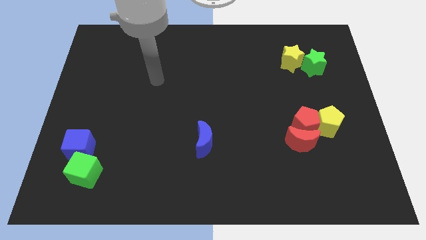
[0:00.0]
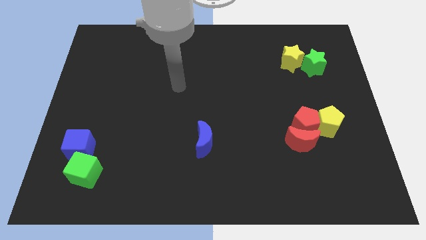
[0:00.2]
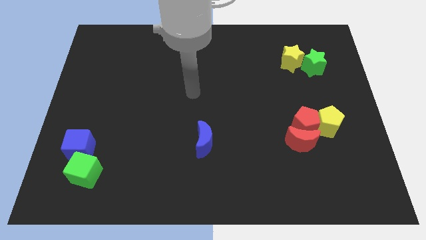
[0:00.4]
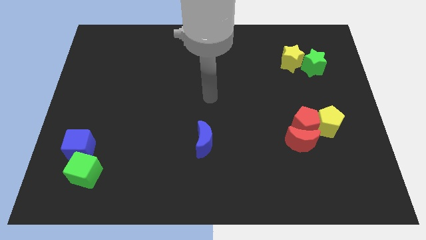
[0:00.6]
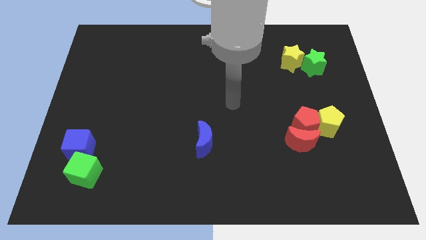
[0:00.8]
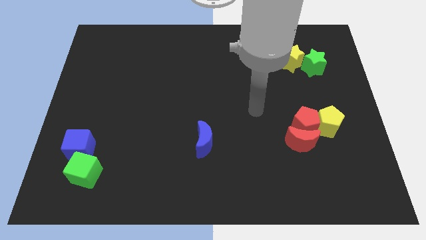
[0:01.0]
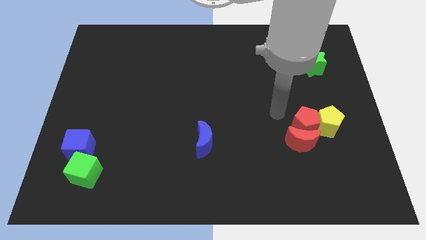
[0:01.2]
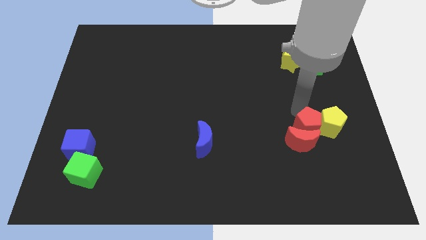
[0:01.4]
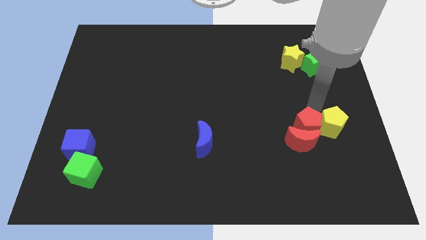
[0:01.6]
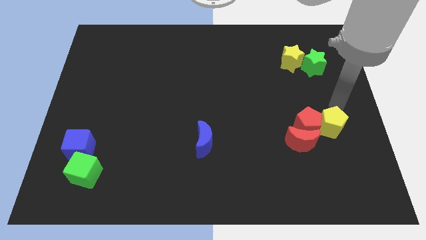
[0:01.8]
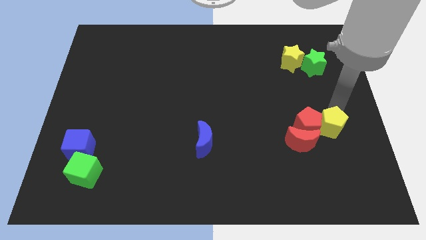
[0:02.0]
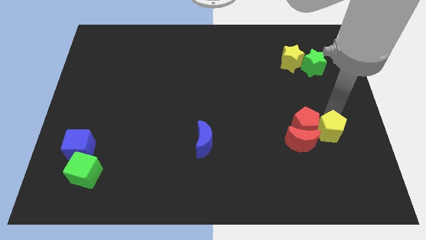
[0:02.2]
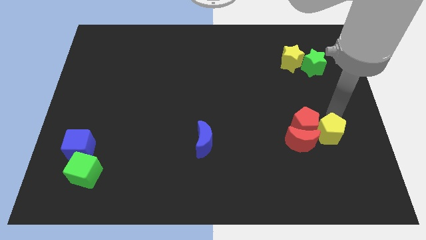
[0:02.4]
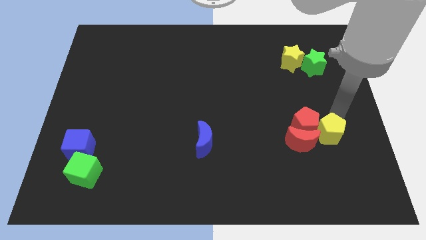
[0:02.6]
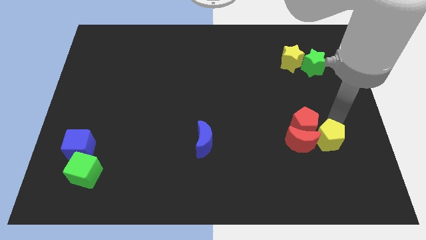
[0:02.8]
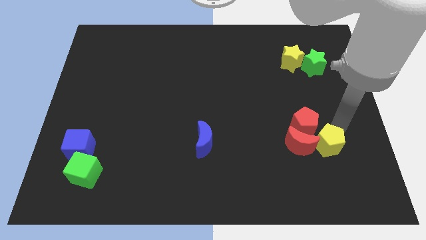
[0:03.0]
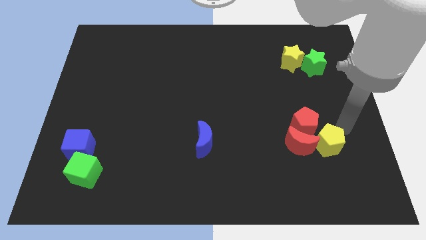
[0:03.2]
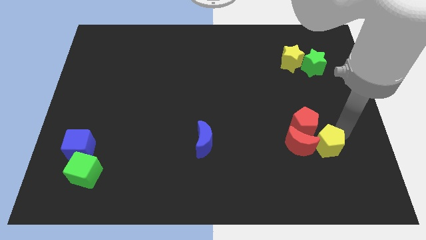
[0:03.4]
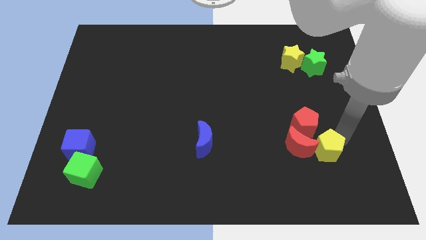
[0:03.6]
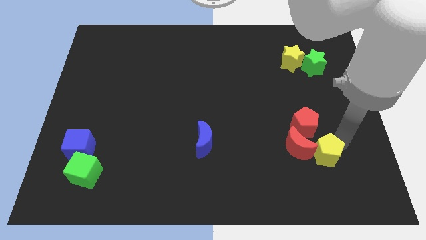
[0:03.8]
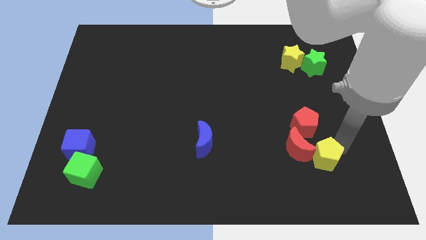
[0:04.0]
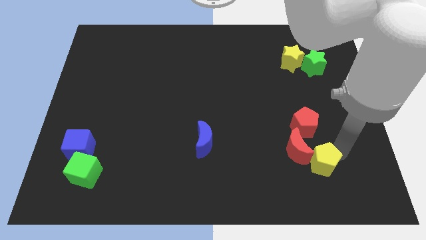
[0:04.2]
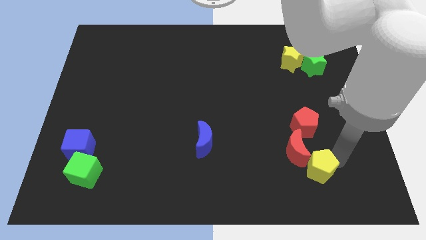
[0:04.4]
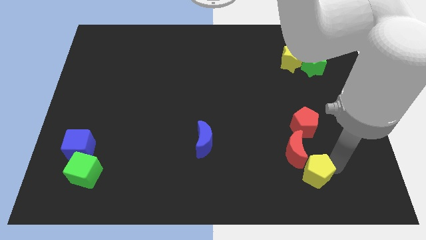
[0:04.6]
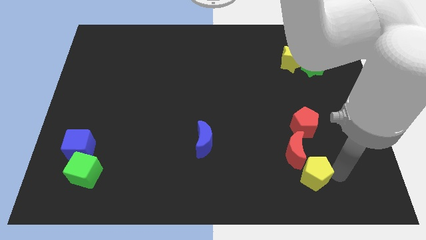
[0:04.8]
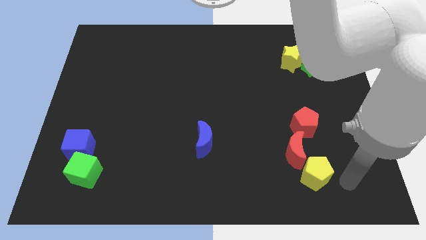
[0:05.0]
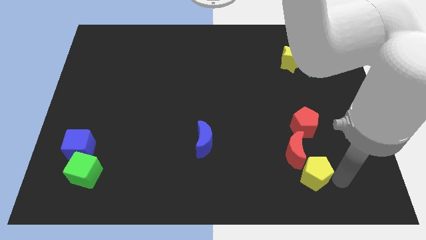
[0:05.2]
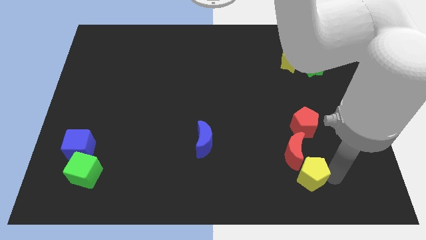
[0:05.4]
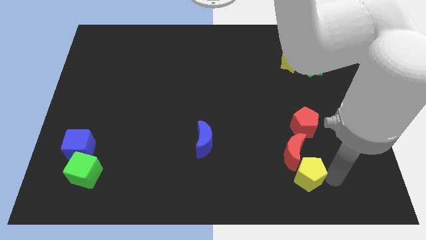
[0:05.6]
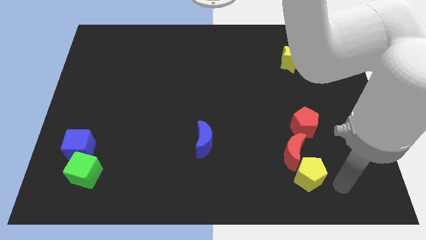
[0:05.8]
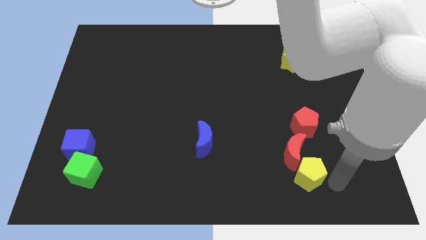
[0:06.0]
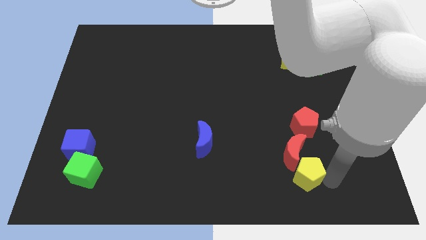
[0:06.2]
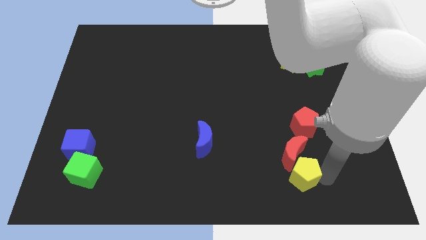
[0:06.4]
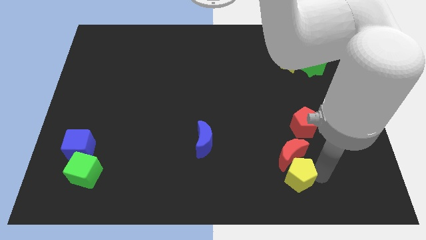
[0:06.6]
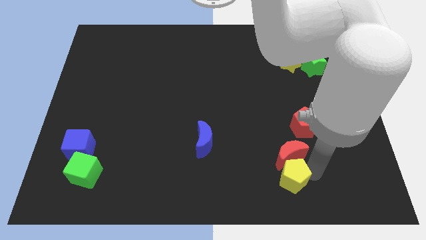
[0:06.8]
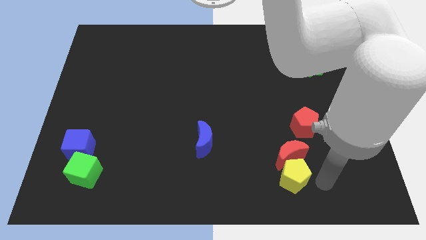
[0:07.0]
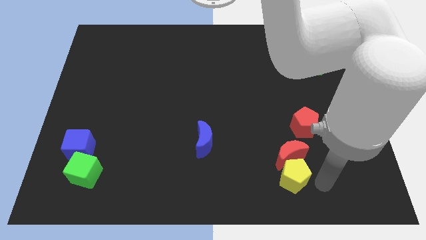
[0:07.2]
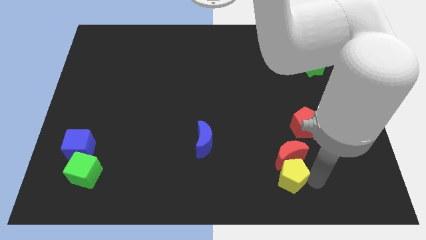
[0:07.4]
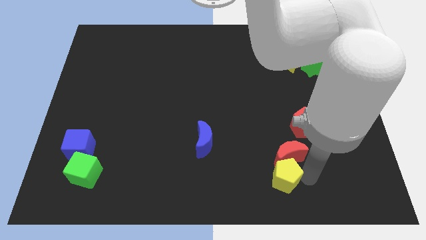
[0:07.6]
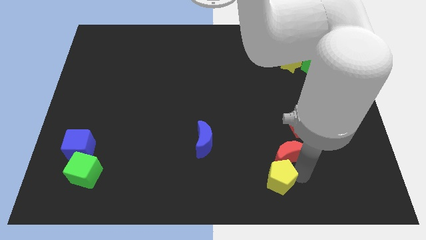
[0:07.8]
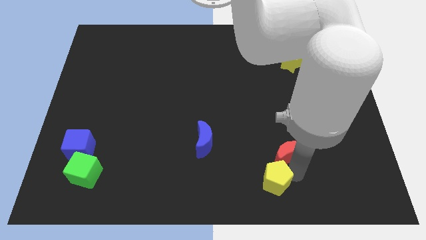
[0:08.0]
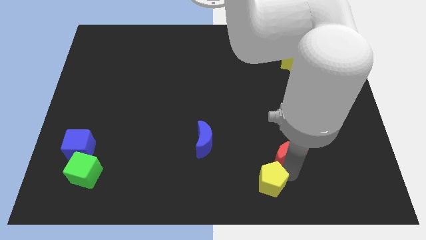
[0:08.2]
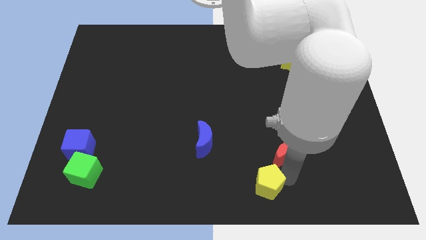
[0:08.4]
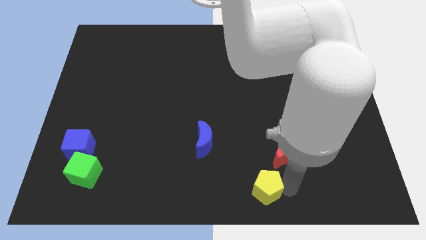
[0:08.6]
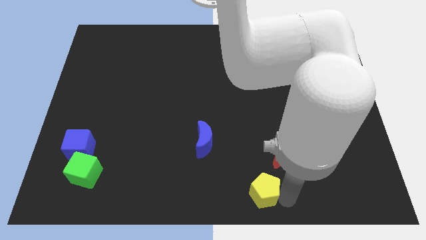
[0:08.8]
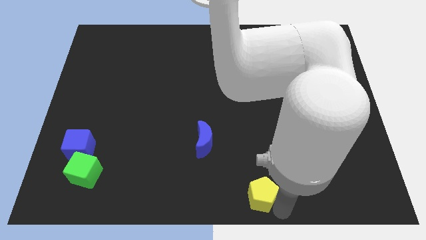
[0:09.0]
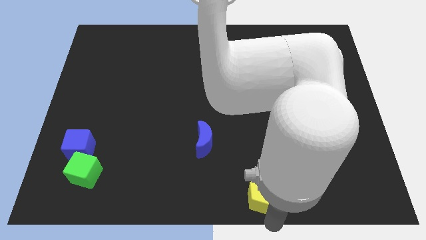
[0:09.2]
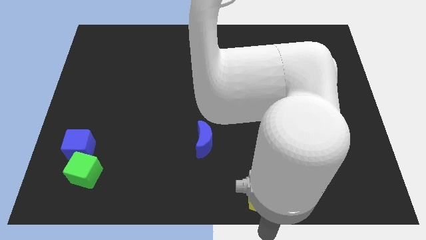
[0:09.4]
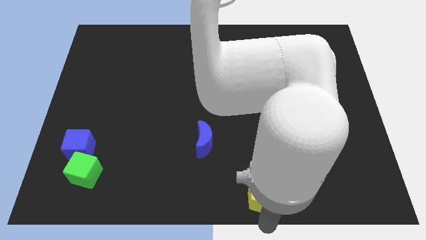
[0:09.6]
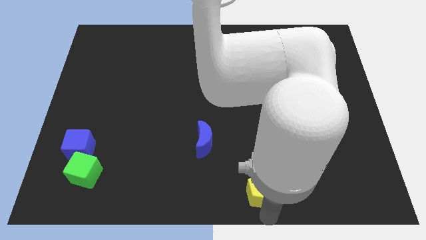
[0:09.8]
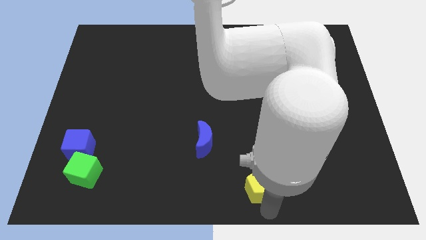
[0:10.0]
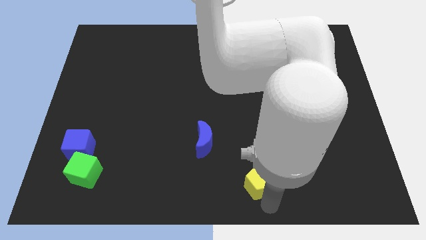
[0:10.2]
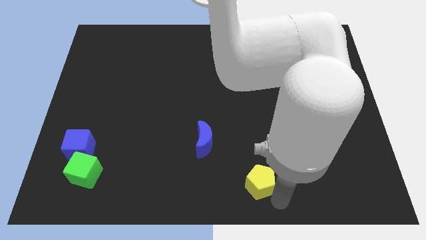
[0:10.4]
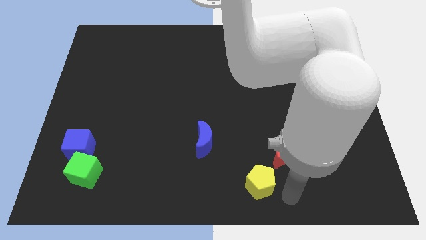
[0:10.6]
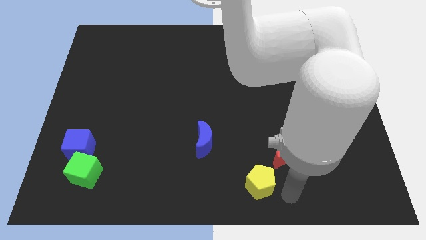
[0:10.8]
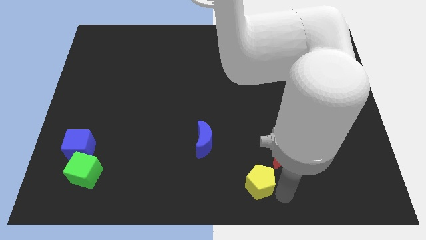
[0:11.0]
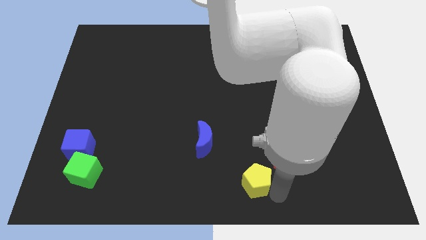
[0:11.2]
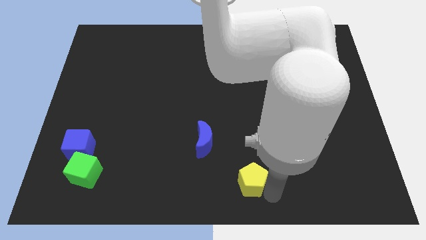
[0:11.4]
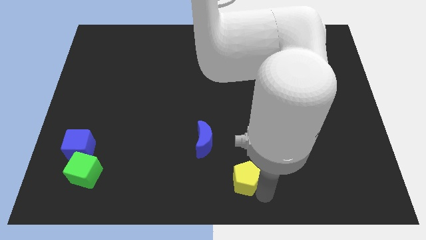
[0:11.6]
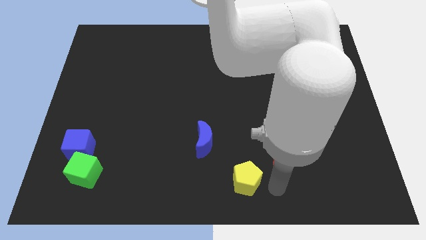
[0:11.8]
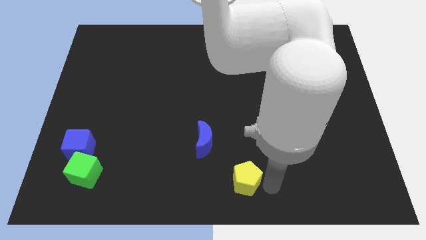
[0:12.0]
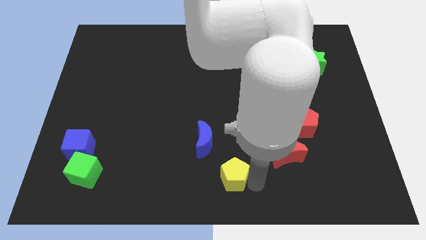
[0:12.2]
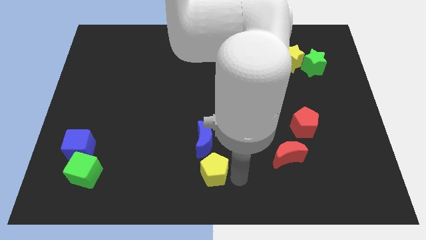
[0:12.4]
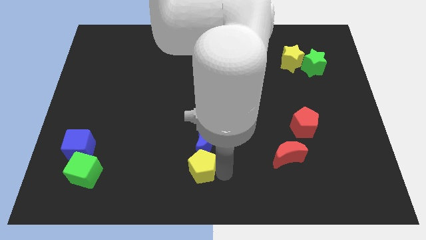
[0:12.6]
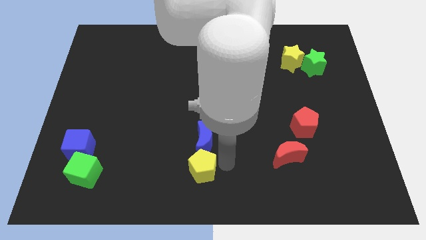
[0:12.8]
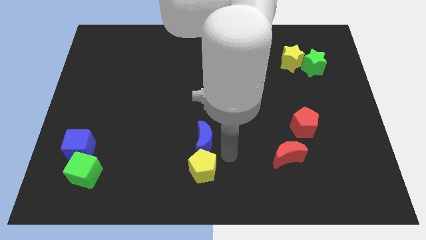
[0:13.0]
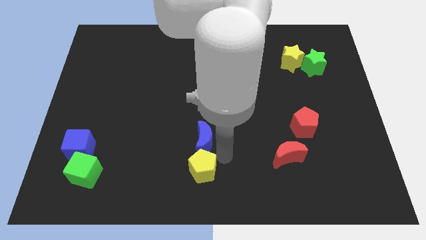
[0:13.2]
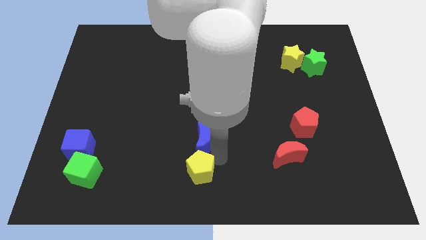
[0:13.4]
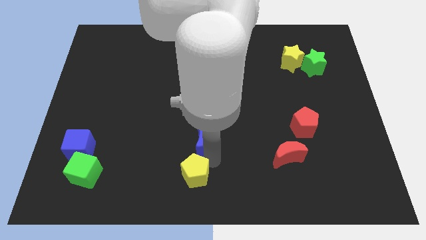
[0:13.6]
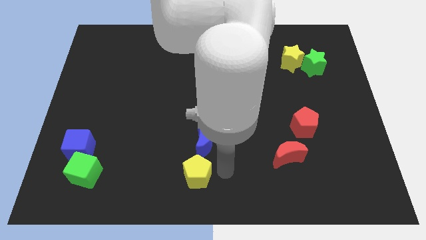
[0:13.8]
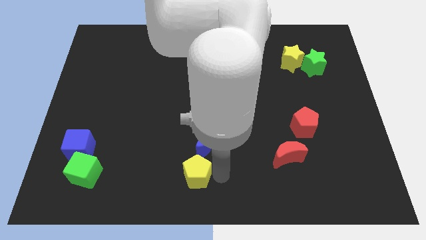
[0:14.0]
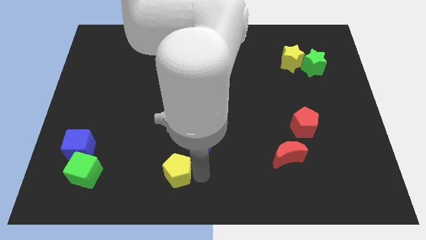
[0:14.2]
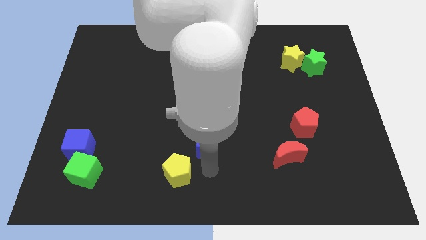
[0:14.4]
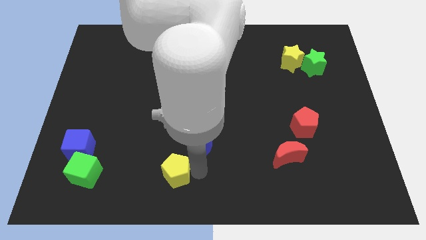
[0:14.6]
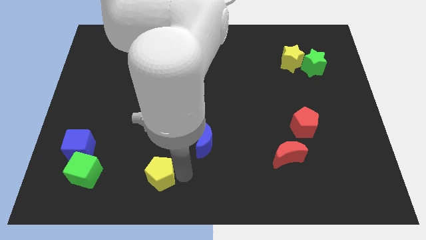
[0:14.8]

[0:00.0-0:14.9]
push the yellow pentagon just right of the green cube

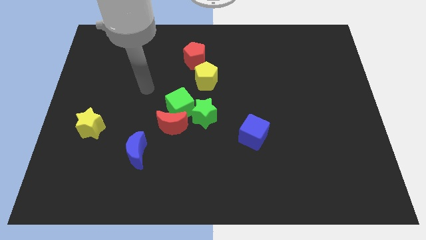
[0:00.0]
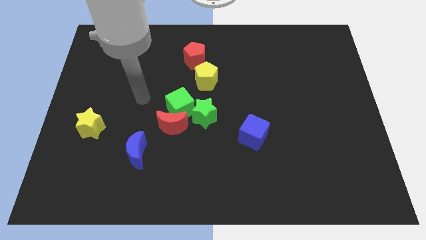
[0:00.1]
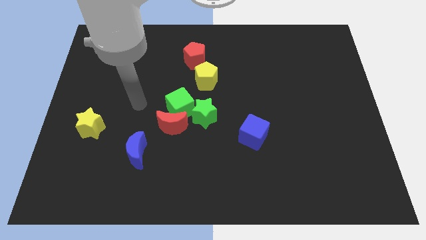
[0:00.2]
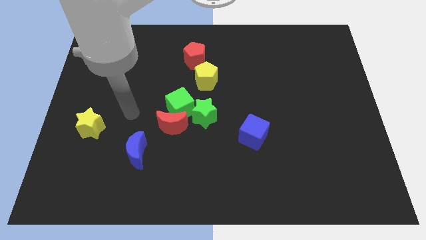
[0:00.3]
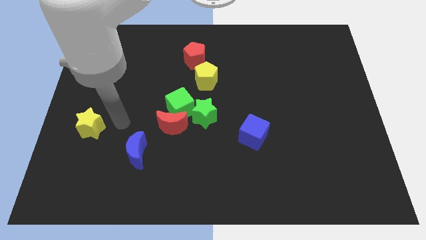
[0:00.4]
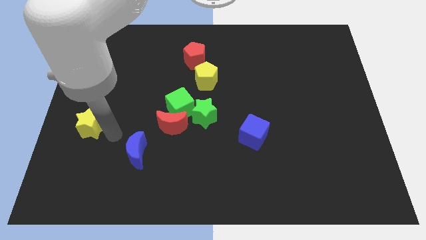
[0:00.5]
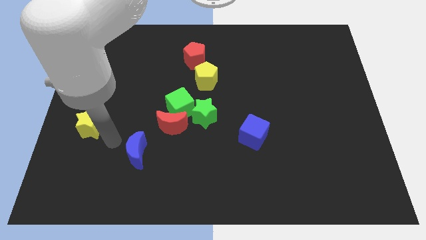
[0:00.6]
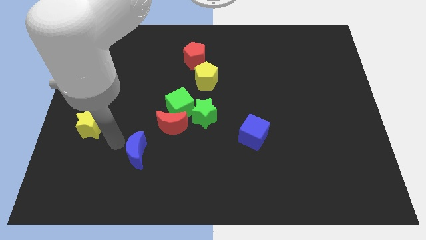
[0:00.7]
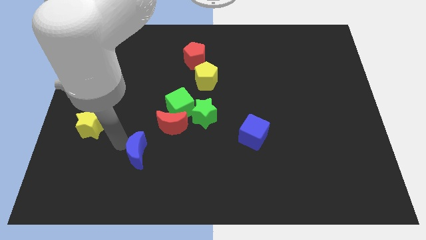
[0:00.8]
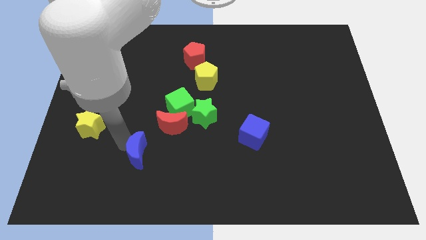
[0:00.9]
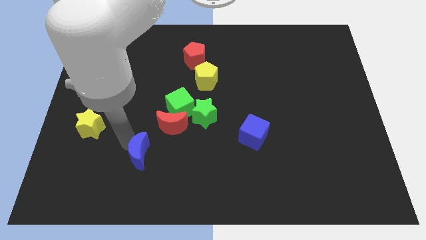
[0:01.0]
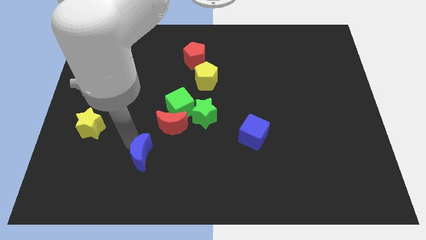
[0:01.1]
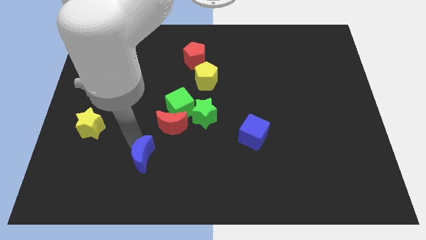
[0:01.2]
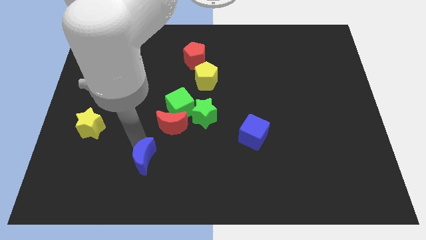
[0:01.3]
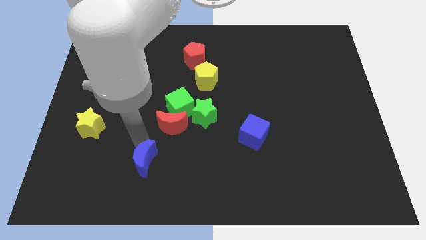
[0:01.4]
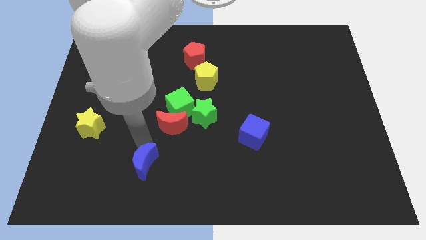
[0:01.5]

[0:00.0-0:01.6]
put the blue moon to the bottom of the red moon
